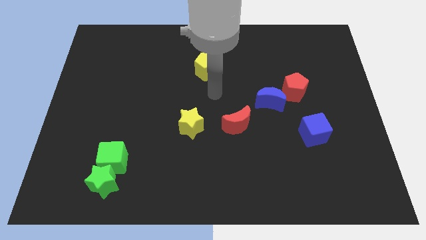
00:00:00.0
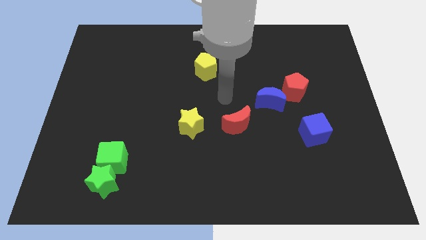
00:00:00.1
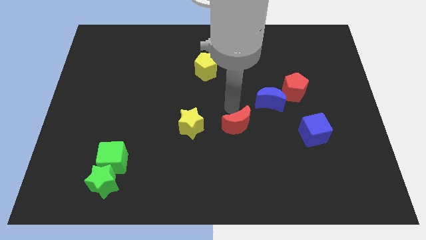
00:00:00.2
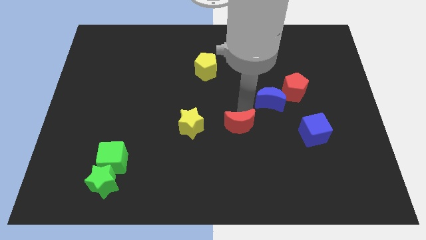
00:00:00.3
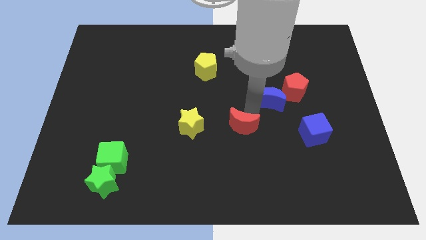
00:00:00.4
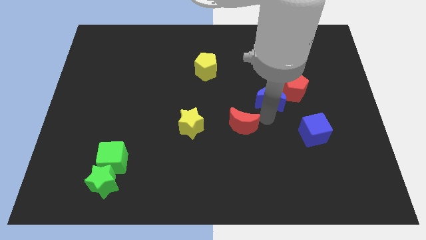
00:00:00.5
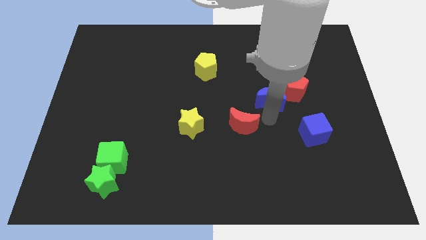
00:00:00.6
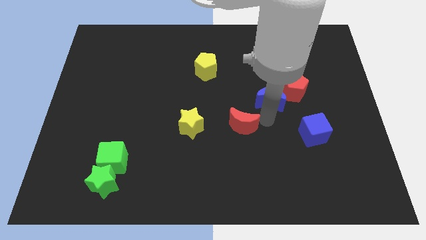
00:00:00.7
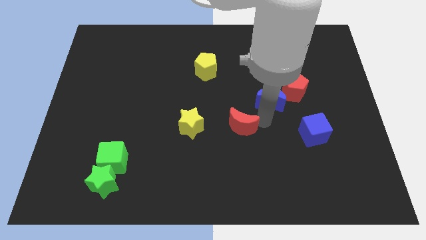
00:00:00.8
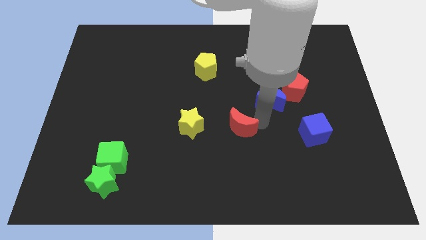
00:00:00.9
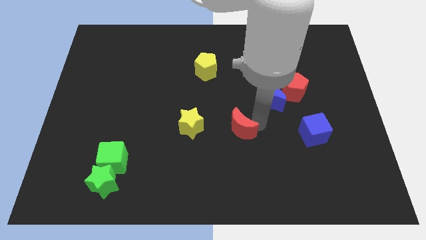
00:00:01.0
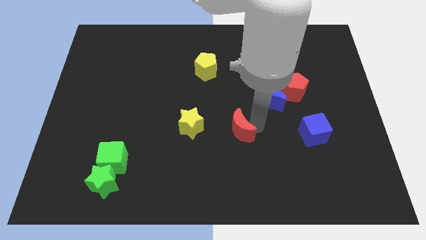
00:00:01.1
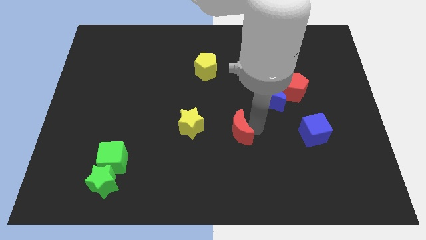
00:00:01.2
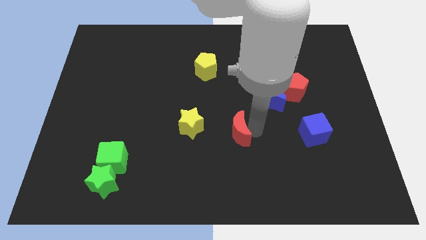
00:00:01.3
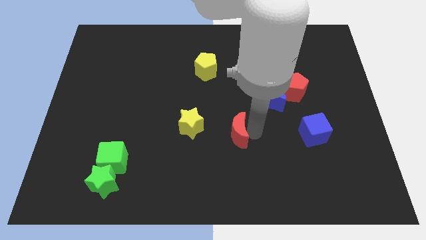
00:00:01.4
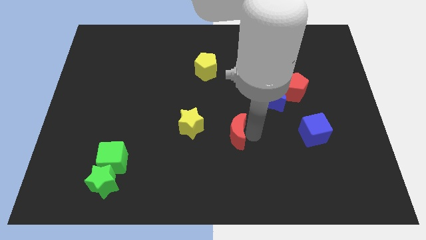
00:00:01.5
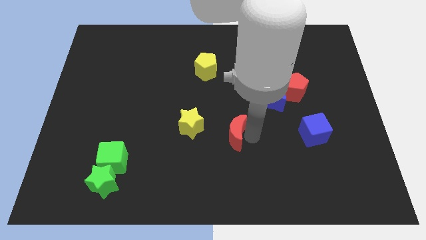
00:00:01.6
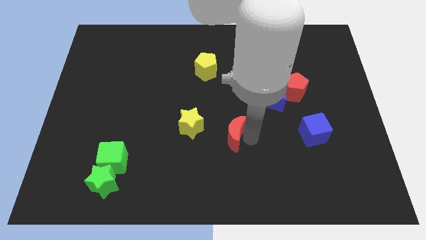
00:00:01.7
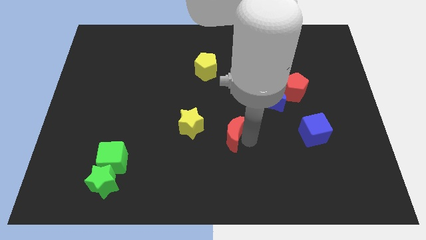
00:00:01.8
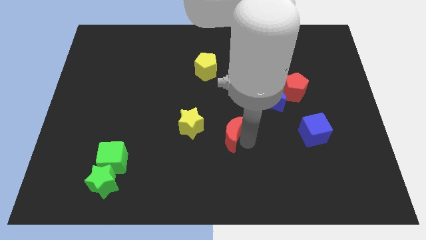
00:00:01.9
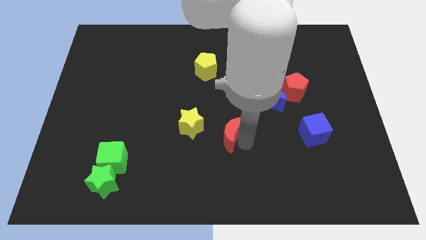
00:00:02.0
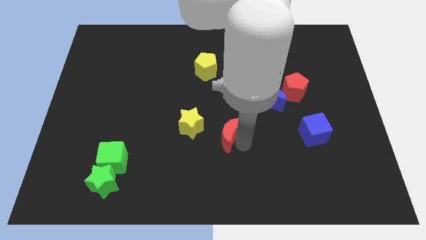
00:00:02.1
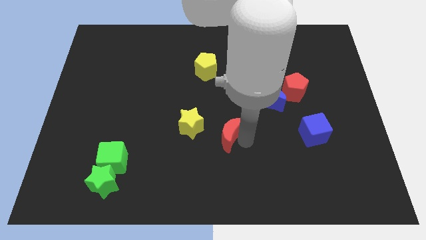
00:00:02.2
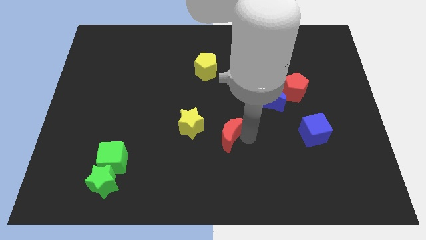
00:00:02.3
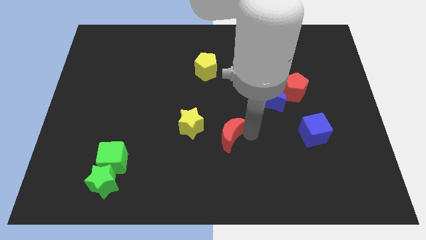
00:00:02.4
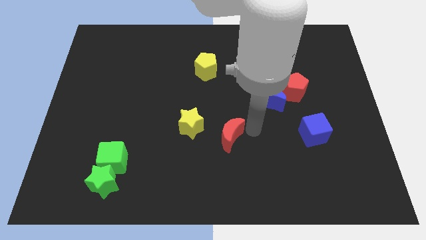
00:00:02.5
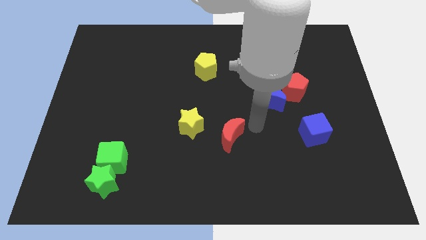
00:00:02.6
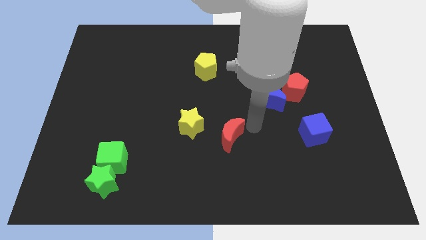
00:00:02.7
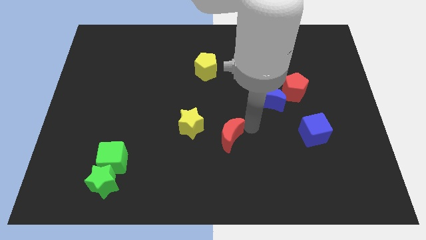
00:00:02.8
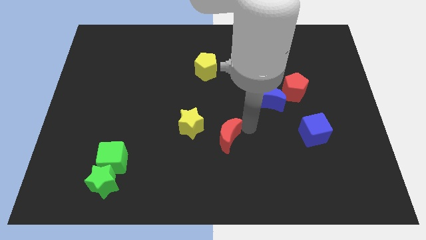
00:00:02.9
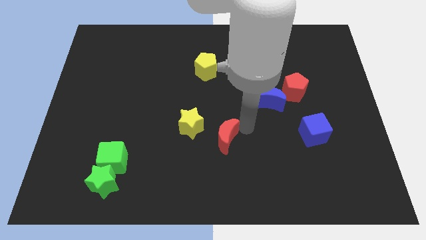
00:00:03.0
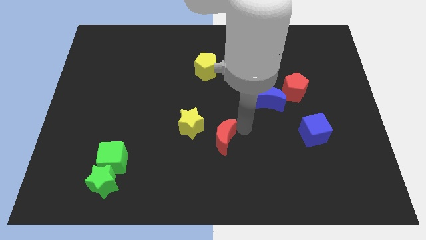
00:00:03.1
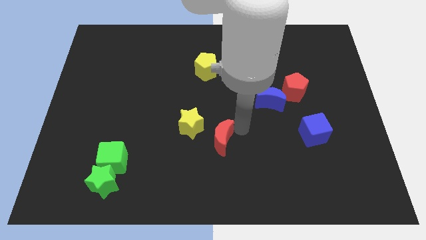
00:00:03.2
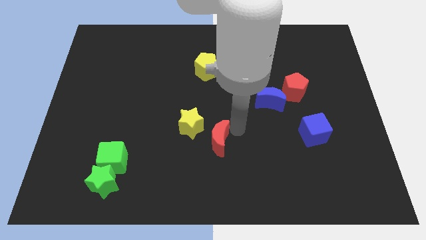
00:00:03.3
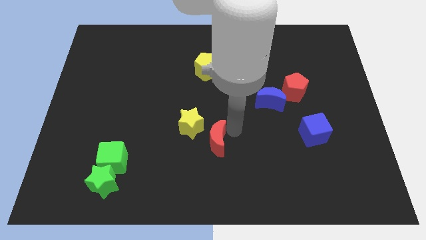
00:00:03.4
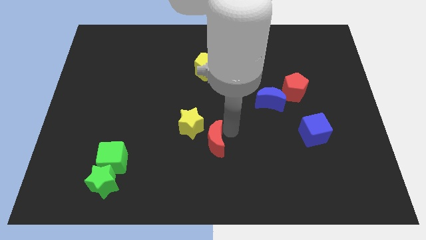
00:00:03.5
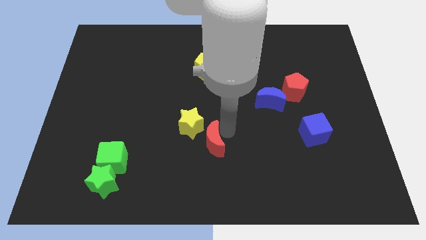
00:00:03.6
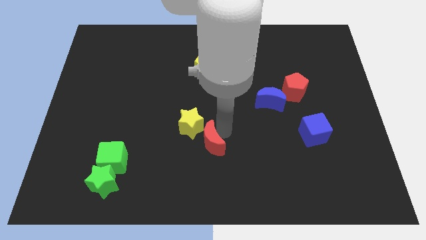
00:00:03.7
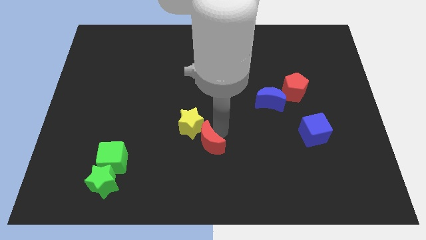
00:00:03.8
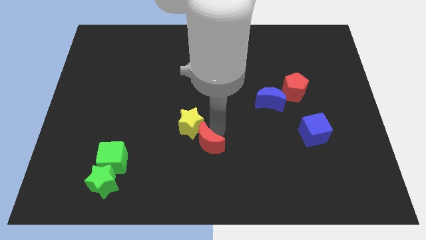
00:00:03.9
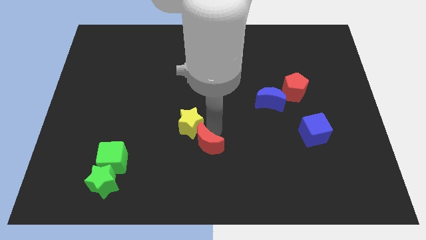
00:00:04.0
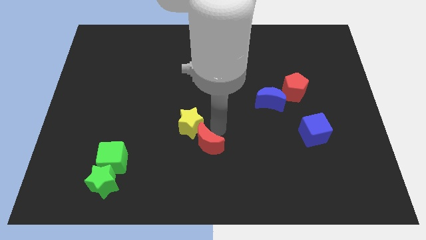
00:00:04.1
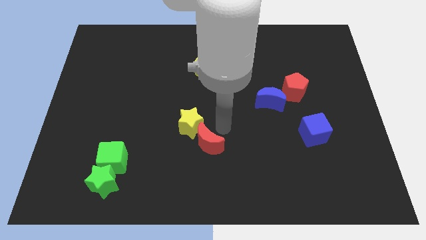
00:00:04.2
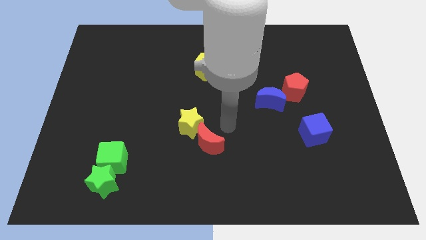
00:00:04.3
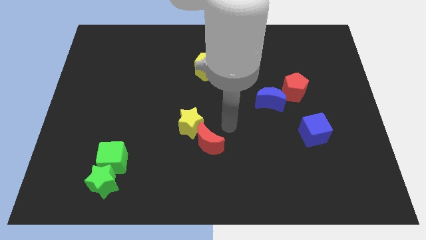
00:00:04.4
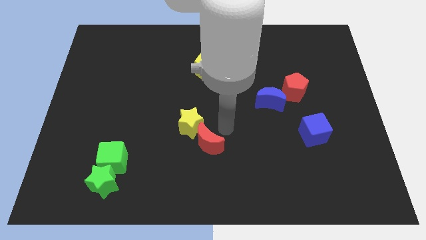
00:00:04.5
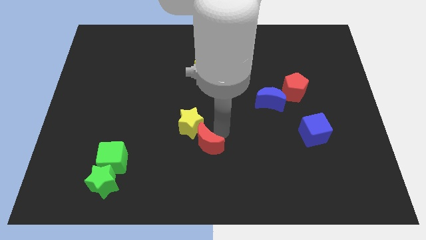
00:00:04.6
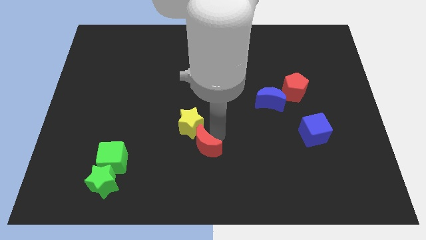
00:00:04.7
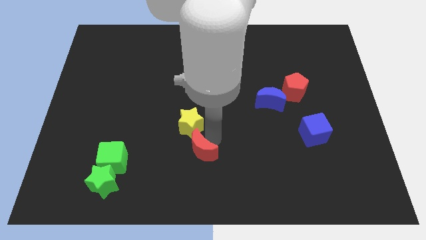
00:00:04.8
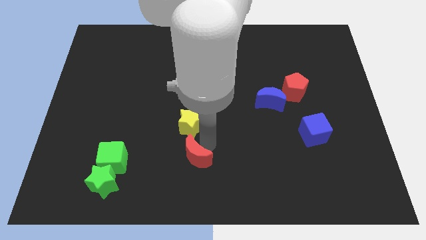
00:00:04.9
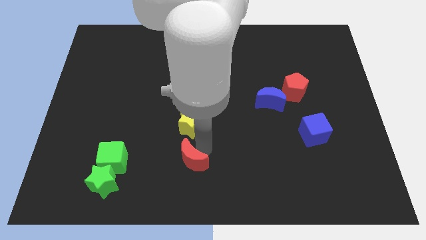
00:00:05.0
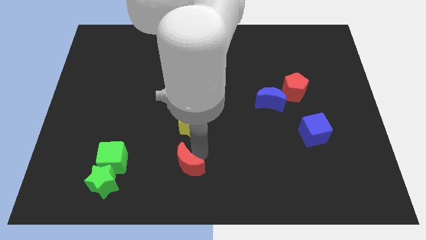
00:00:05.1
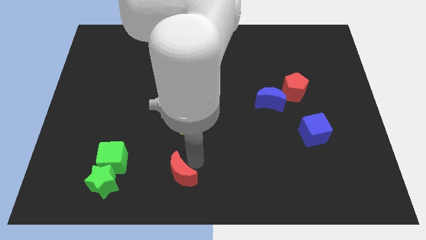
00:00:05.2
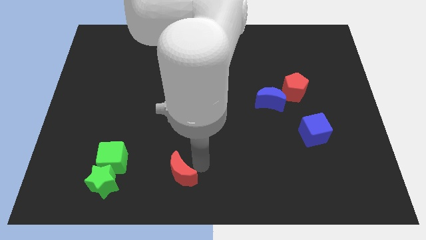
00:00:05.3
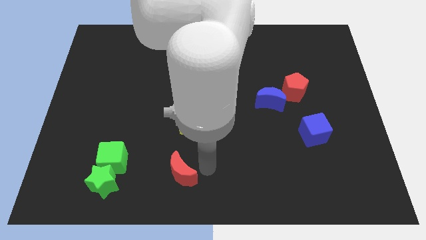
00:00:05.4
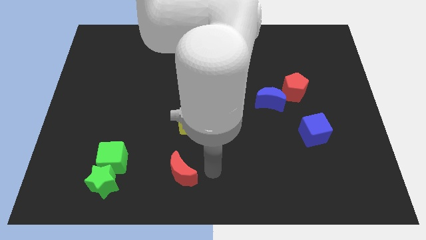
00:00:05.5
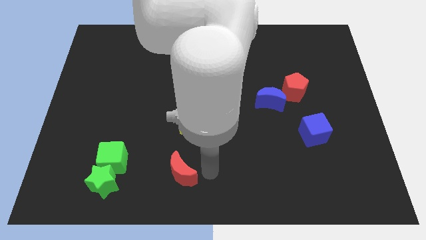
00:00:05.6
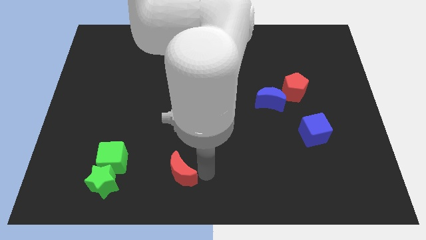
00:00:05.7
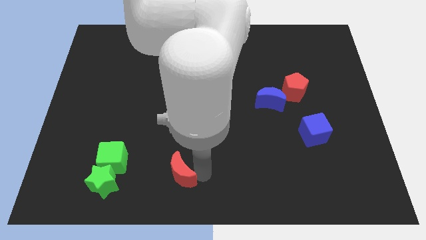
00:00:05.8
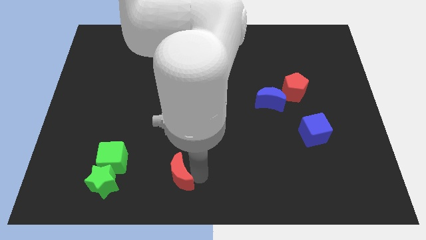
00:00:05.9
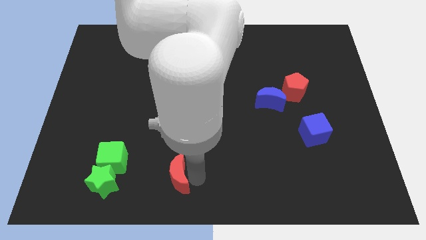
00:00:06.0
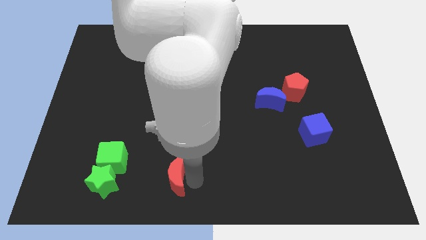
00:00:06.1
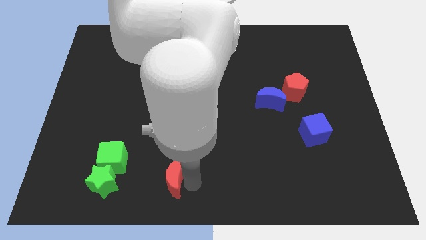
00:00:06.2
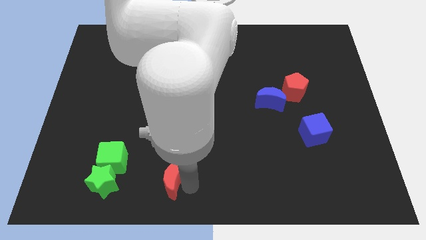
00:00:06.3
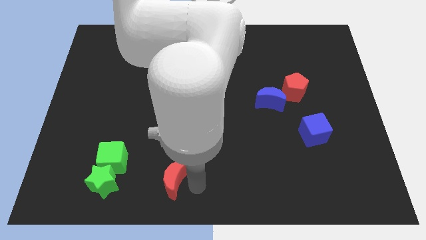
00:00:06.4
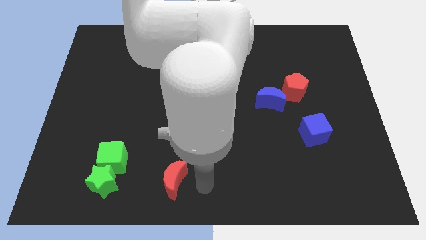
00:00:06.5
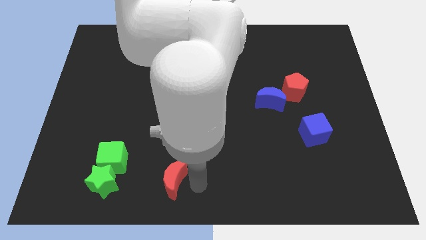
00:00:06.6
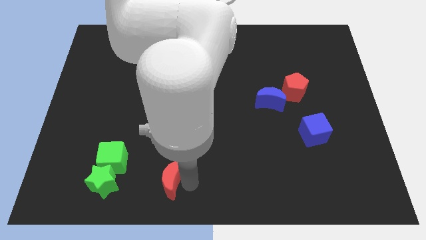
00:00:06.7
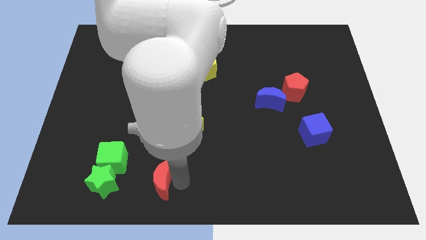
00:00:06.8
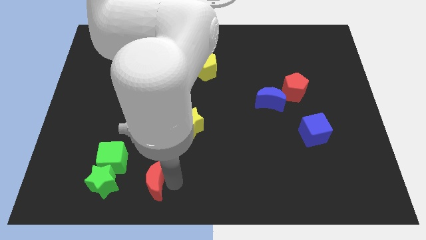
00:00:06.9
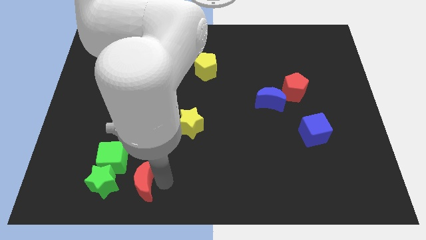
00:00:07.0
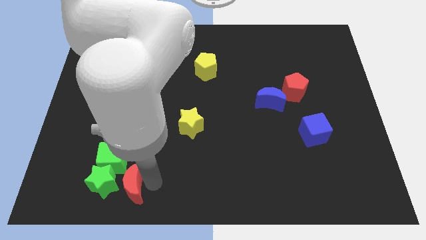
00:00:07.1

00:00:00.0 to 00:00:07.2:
move the red moon towards the green star
